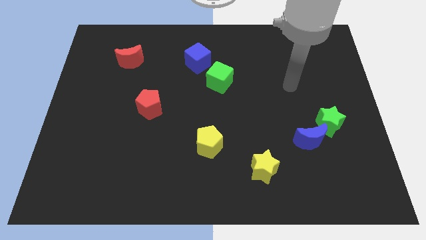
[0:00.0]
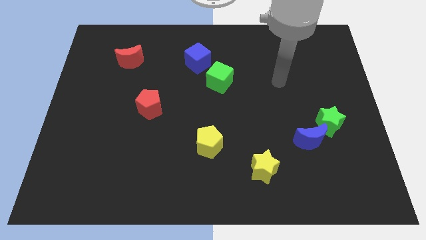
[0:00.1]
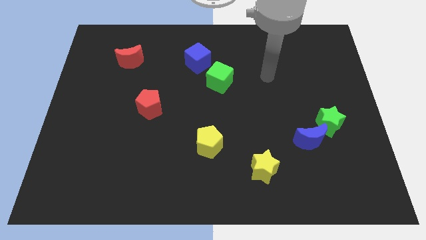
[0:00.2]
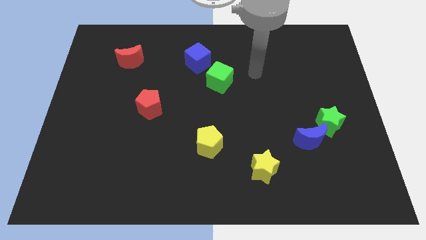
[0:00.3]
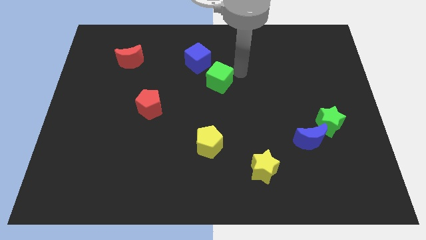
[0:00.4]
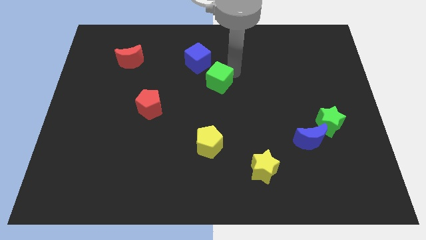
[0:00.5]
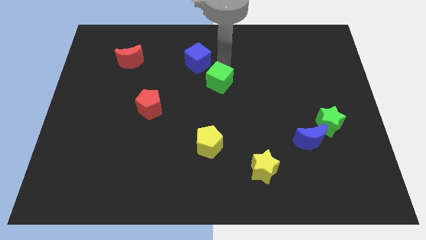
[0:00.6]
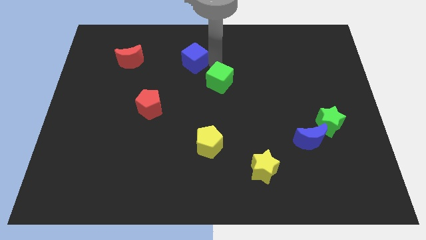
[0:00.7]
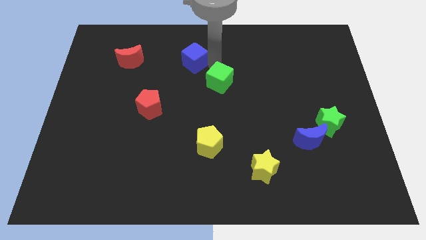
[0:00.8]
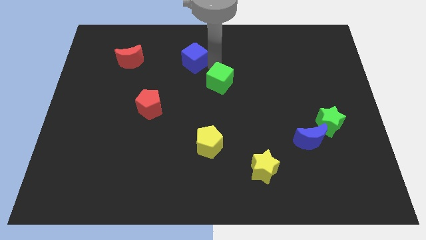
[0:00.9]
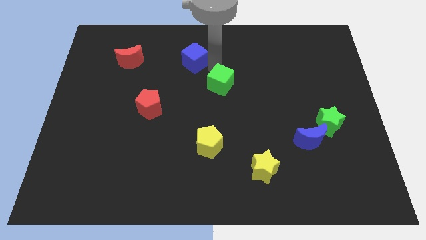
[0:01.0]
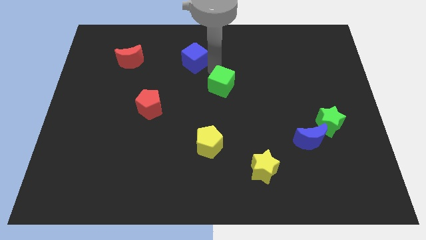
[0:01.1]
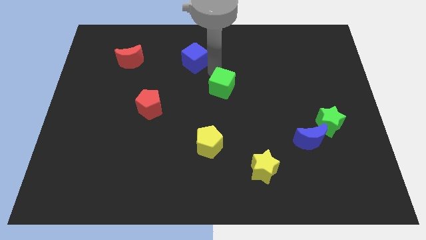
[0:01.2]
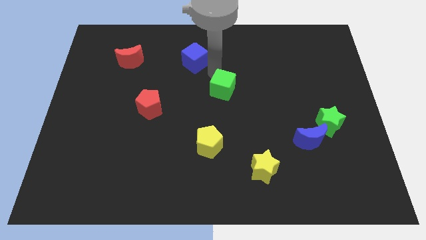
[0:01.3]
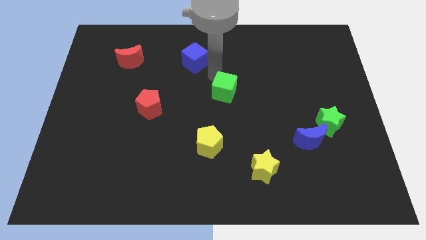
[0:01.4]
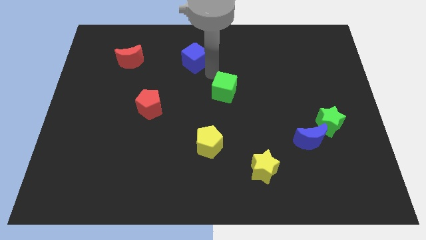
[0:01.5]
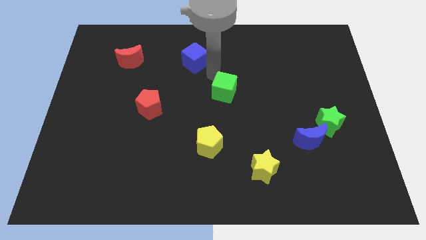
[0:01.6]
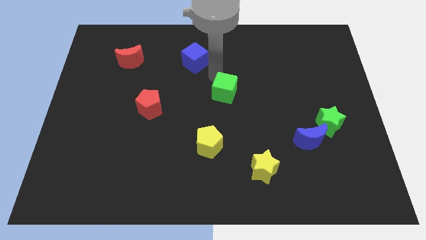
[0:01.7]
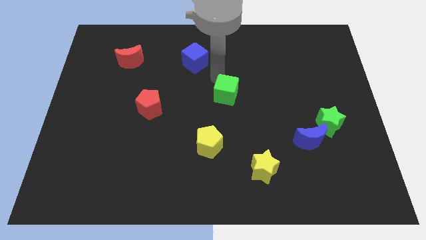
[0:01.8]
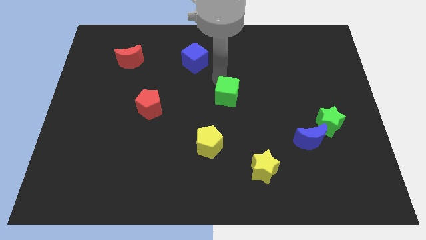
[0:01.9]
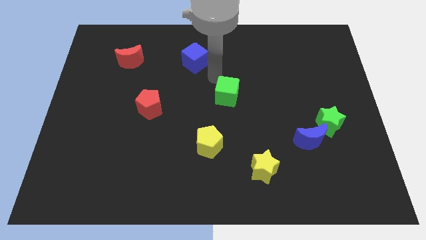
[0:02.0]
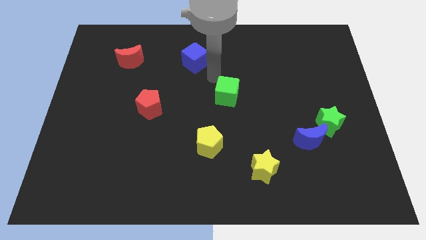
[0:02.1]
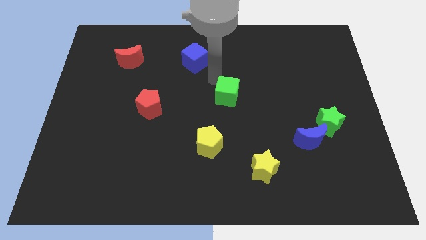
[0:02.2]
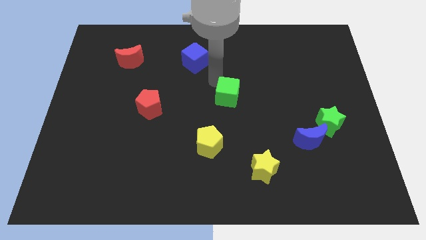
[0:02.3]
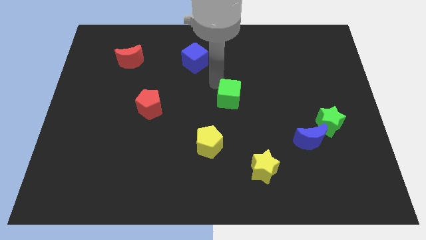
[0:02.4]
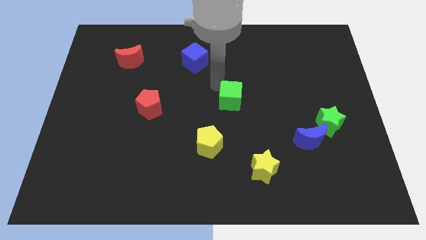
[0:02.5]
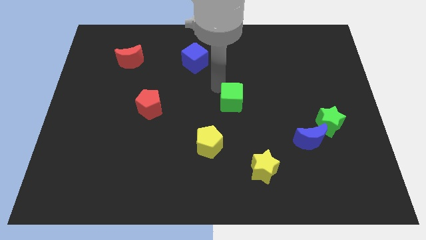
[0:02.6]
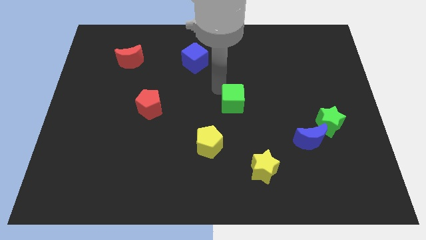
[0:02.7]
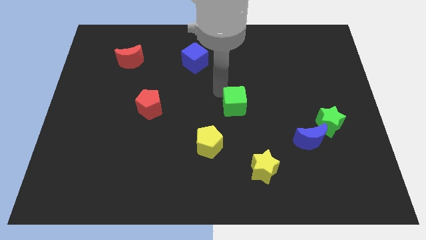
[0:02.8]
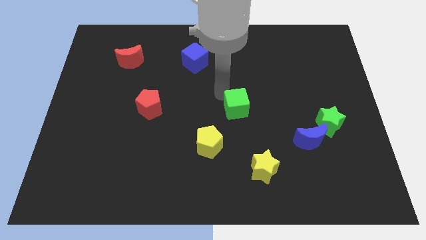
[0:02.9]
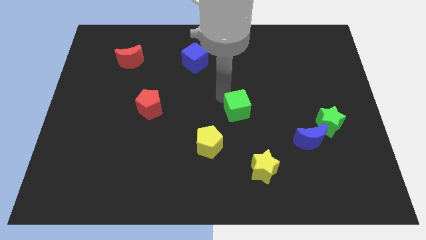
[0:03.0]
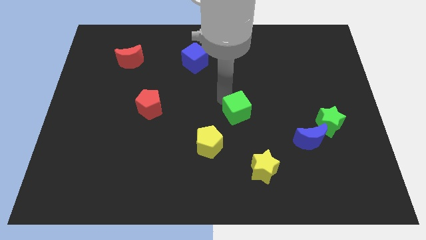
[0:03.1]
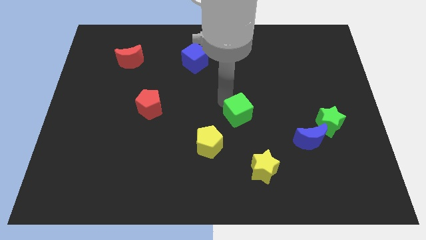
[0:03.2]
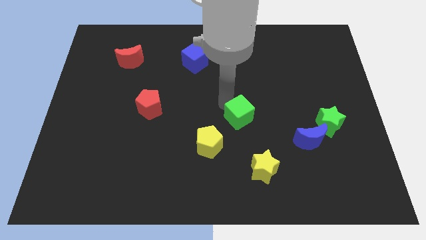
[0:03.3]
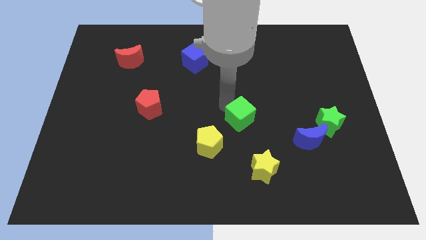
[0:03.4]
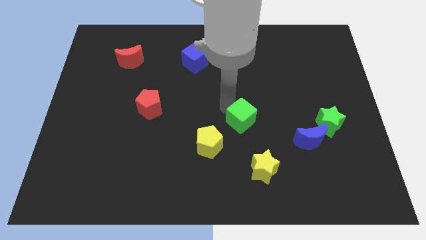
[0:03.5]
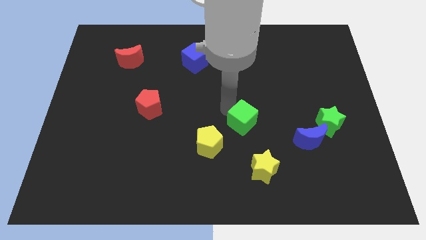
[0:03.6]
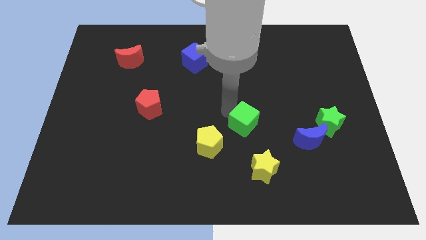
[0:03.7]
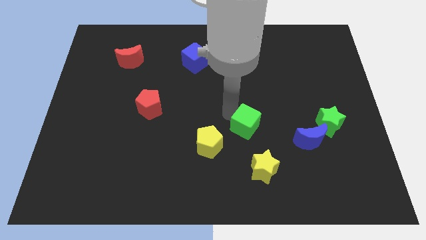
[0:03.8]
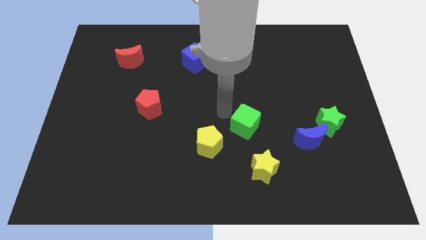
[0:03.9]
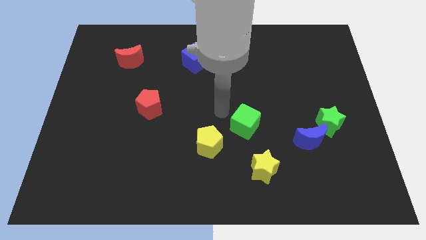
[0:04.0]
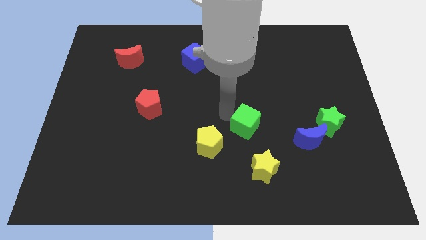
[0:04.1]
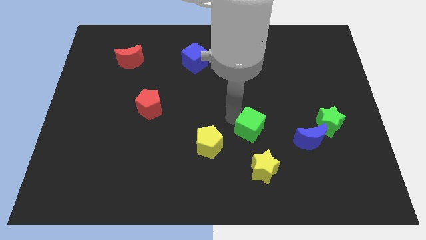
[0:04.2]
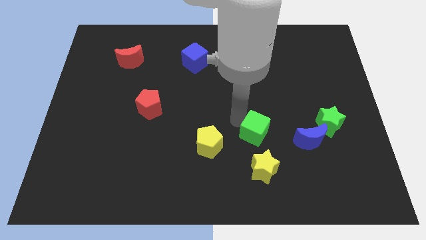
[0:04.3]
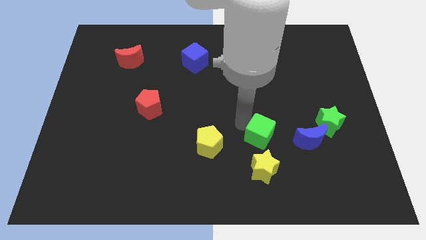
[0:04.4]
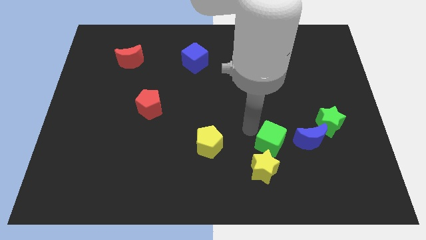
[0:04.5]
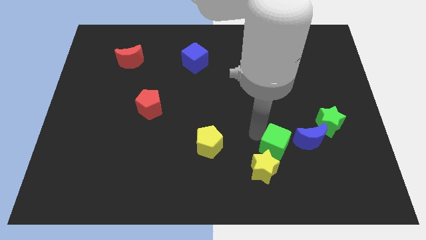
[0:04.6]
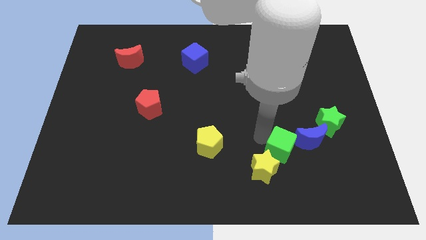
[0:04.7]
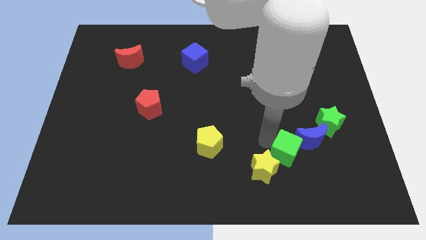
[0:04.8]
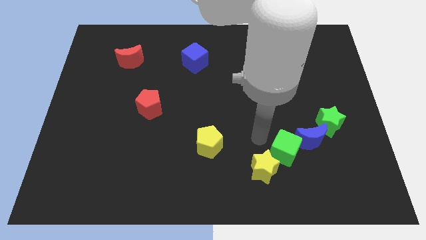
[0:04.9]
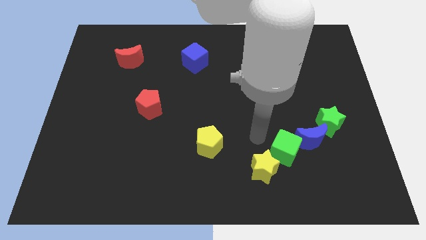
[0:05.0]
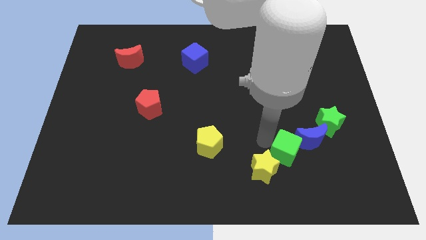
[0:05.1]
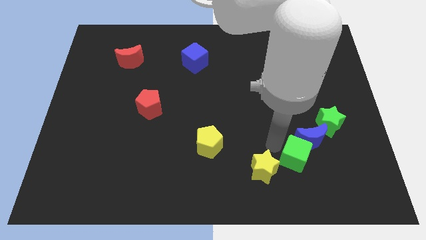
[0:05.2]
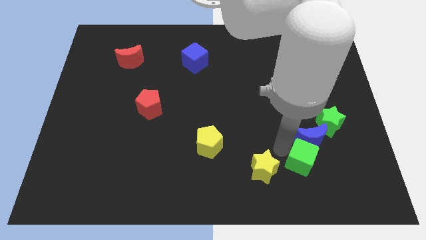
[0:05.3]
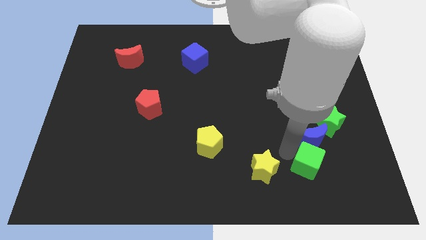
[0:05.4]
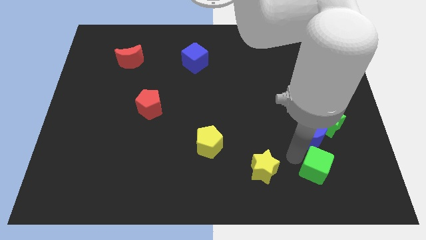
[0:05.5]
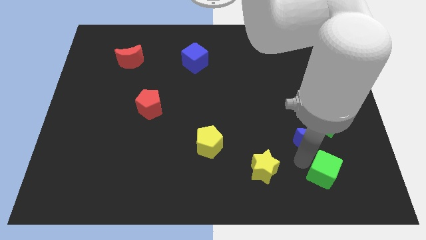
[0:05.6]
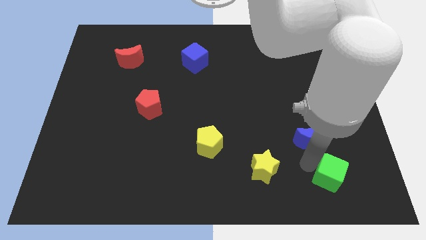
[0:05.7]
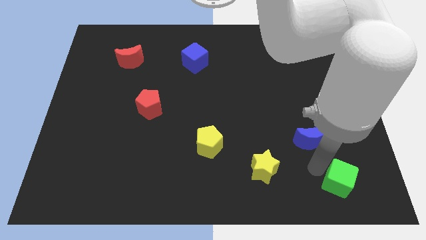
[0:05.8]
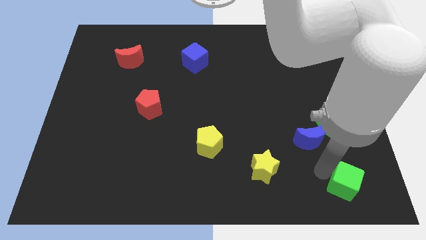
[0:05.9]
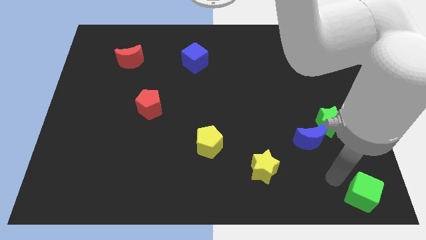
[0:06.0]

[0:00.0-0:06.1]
put the green cube to the bottom right

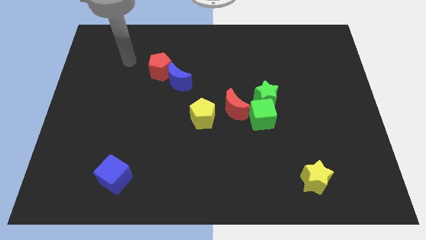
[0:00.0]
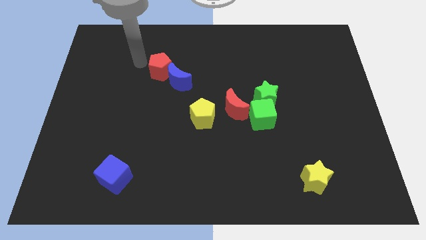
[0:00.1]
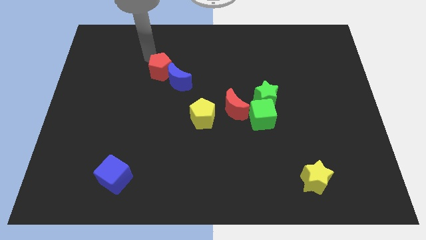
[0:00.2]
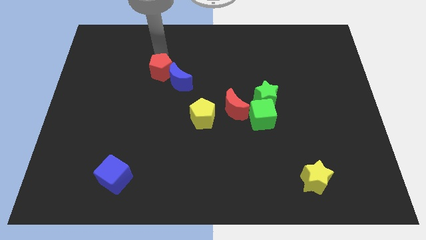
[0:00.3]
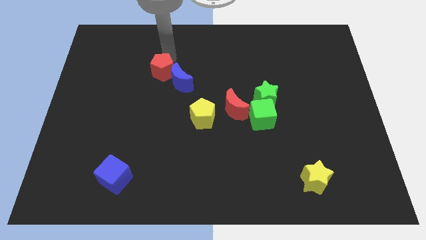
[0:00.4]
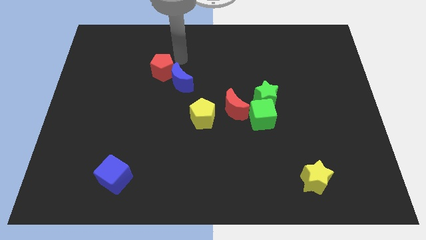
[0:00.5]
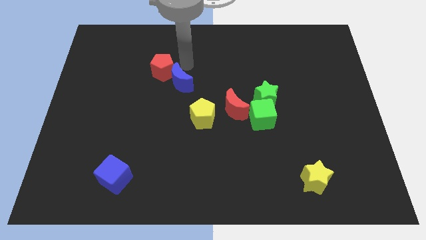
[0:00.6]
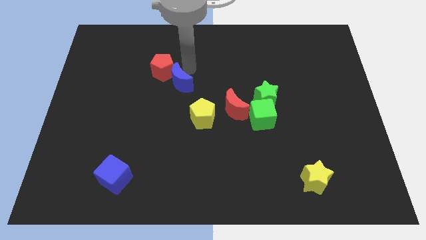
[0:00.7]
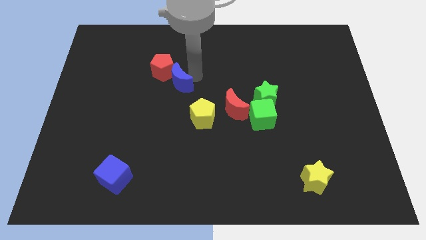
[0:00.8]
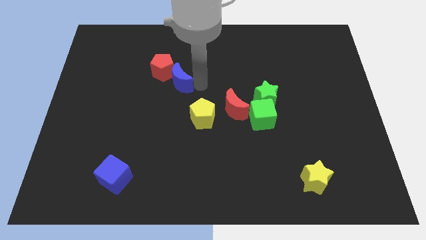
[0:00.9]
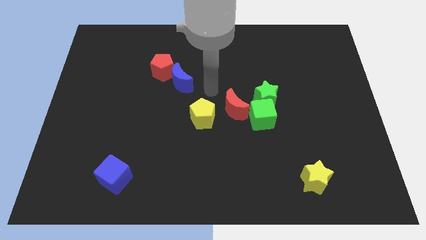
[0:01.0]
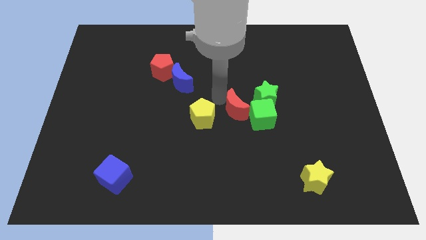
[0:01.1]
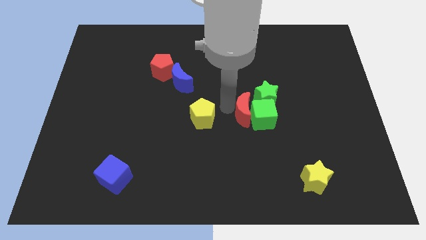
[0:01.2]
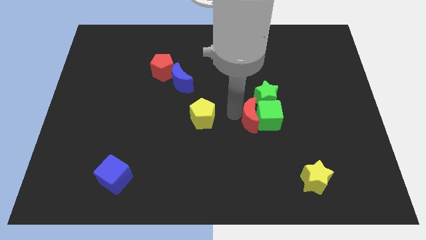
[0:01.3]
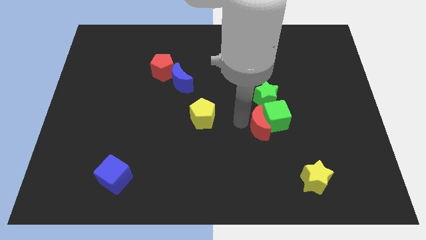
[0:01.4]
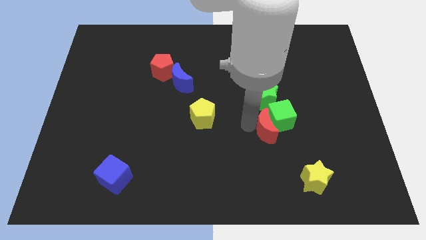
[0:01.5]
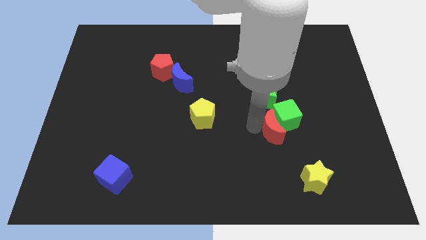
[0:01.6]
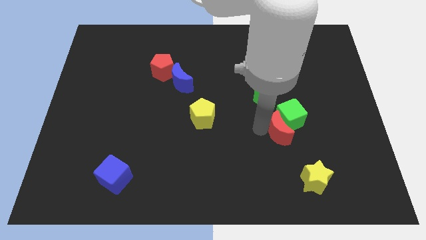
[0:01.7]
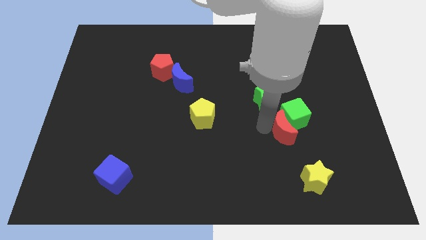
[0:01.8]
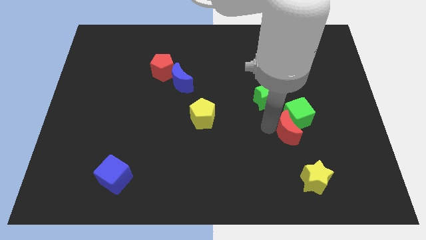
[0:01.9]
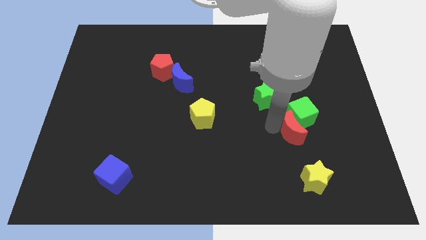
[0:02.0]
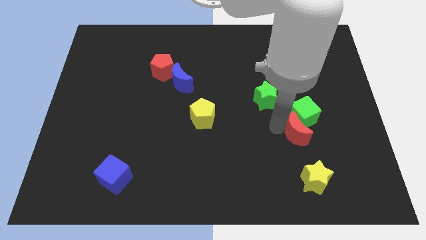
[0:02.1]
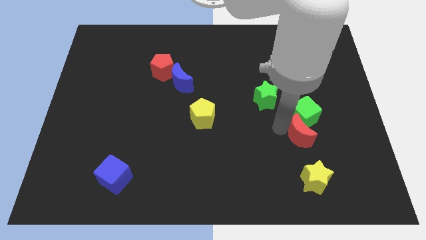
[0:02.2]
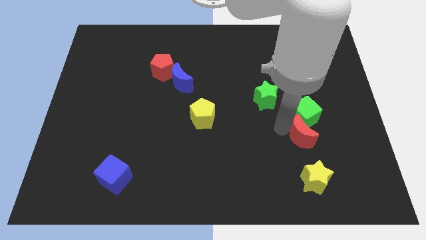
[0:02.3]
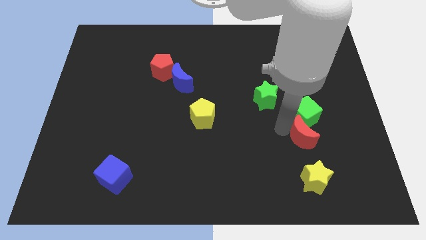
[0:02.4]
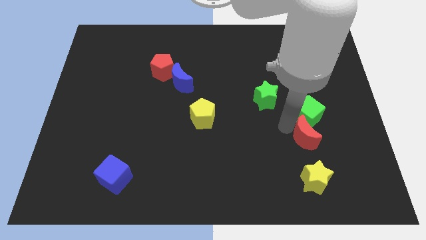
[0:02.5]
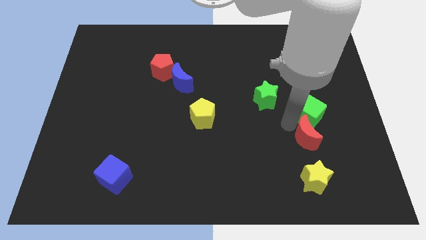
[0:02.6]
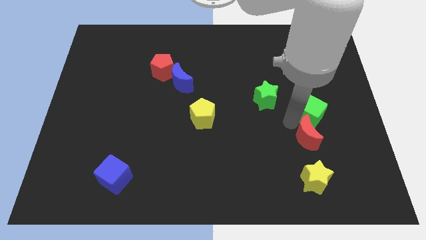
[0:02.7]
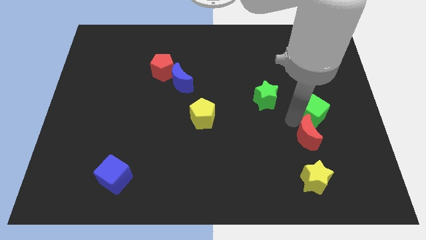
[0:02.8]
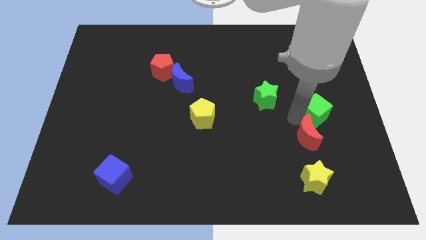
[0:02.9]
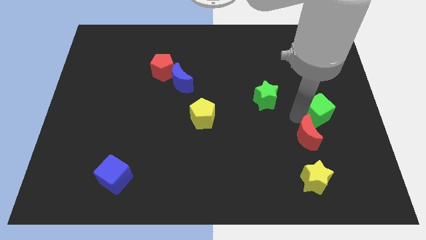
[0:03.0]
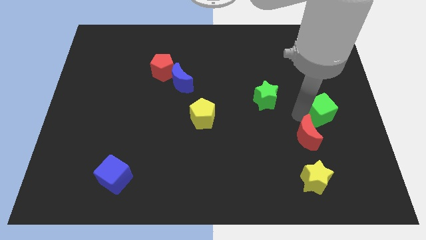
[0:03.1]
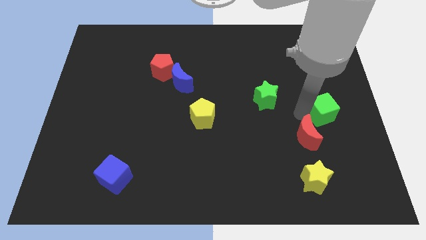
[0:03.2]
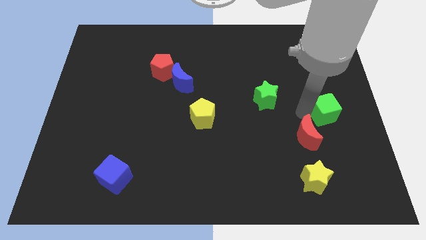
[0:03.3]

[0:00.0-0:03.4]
push the green cube to the right side of the board
